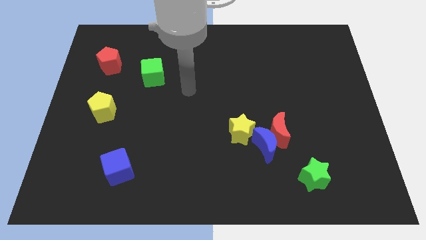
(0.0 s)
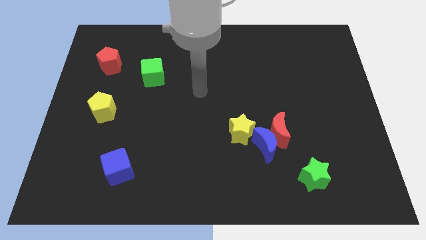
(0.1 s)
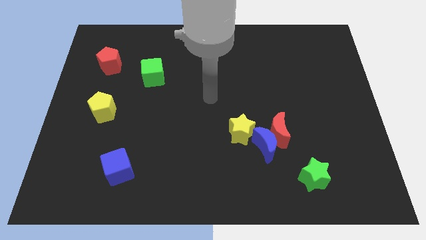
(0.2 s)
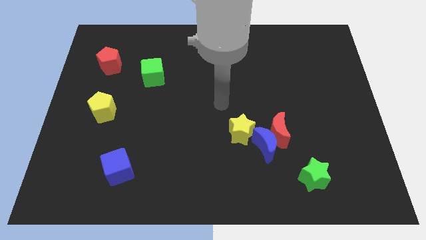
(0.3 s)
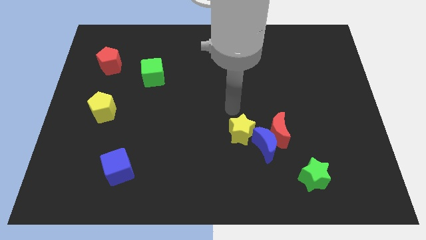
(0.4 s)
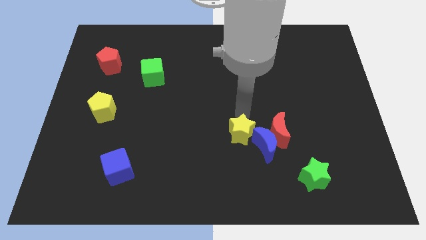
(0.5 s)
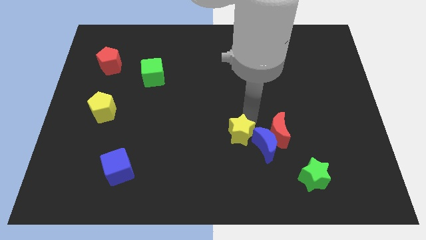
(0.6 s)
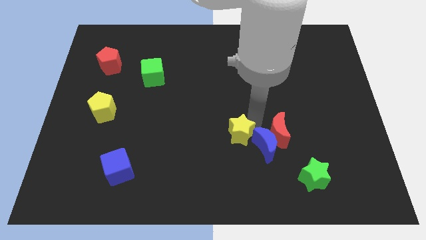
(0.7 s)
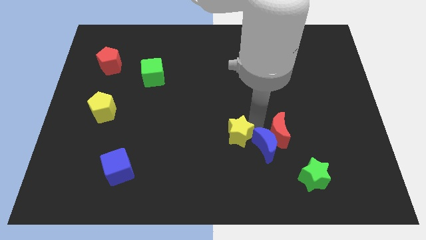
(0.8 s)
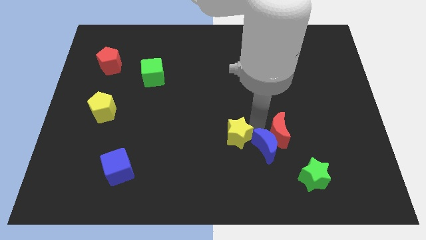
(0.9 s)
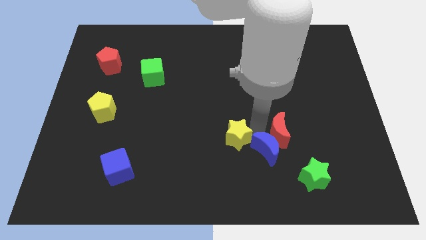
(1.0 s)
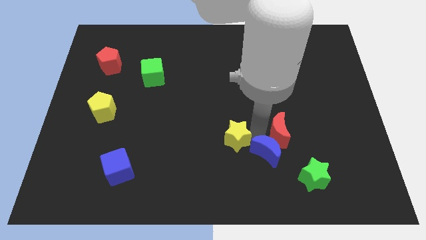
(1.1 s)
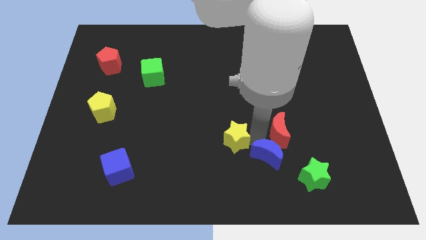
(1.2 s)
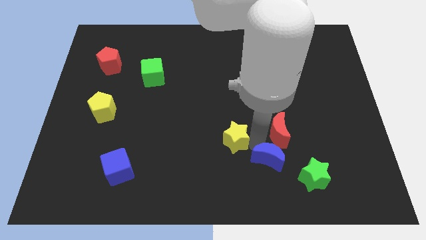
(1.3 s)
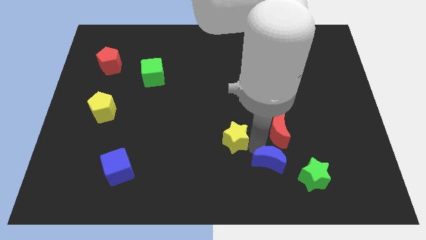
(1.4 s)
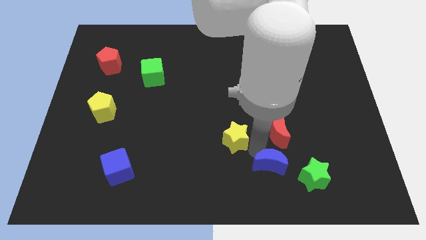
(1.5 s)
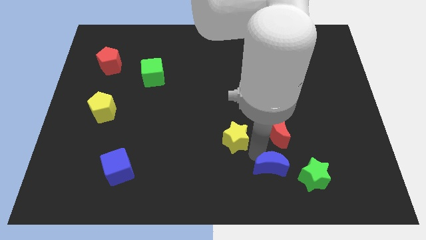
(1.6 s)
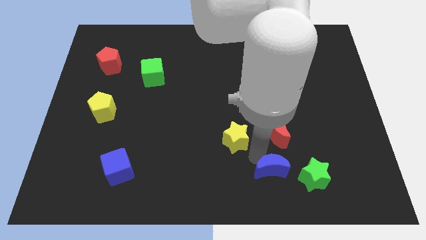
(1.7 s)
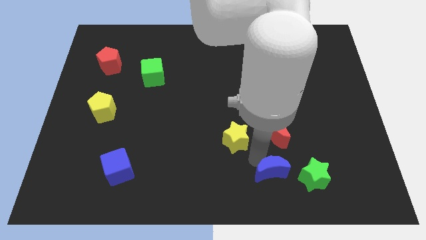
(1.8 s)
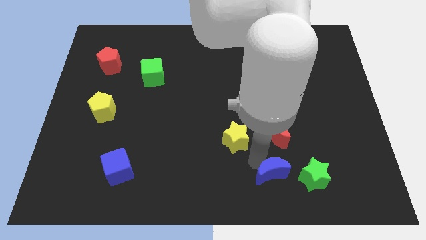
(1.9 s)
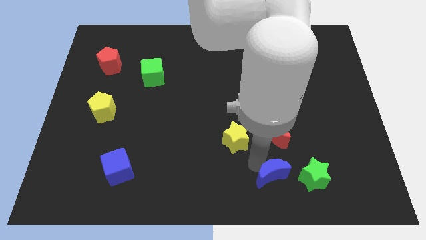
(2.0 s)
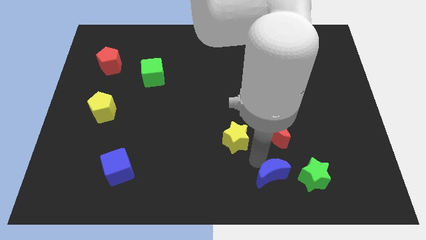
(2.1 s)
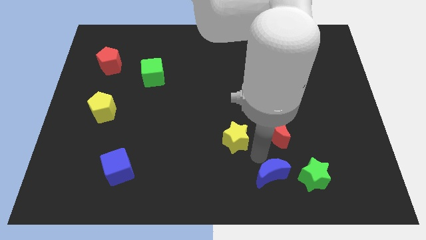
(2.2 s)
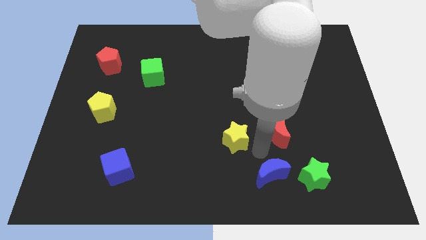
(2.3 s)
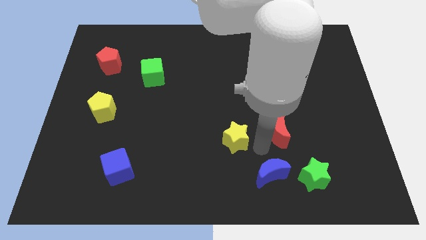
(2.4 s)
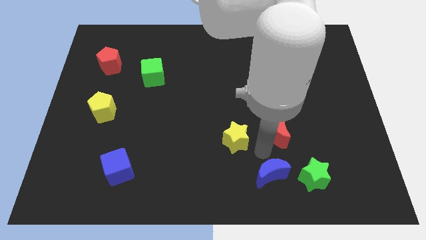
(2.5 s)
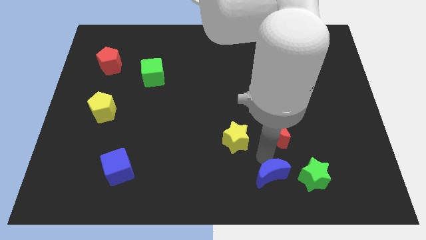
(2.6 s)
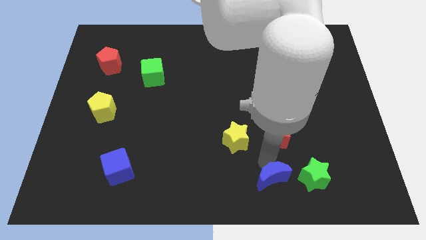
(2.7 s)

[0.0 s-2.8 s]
move the blue moon away from the red moon and yellow star

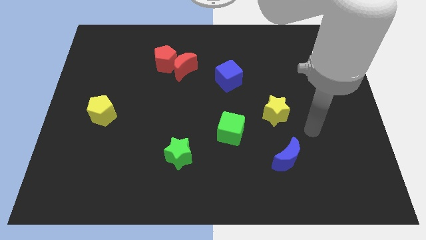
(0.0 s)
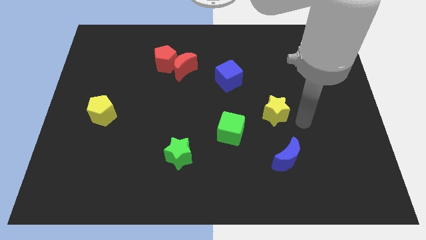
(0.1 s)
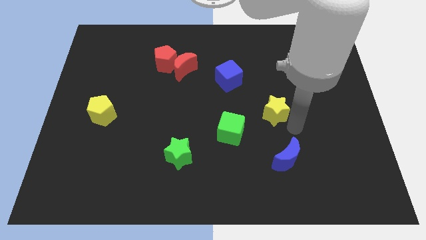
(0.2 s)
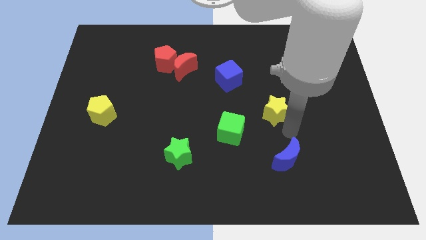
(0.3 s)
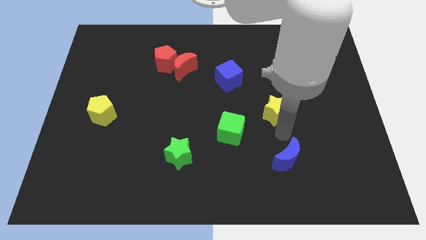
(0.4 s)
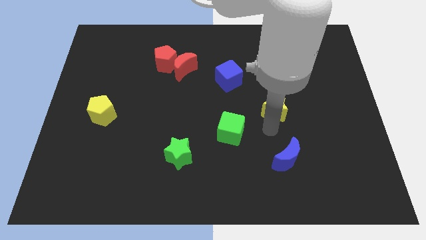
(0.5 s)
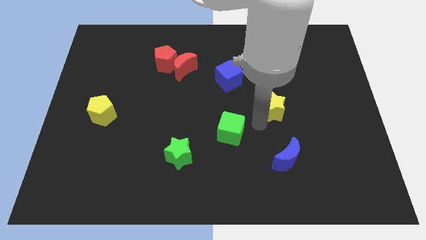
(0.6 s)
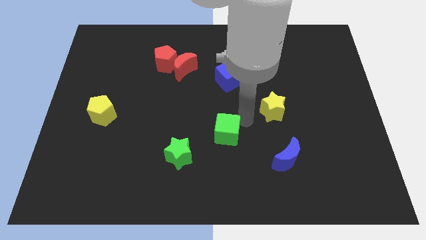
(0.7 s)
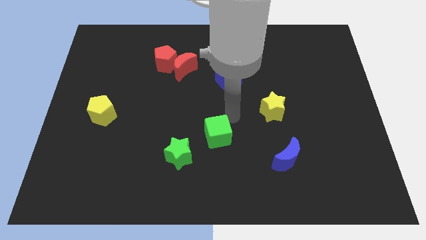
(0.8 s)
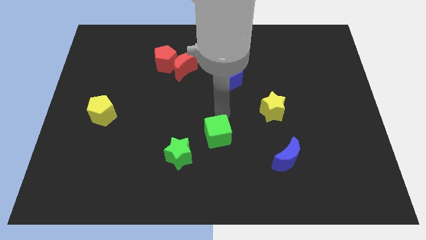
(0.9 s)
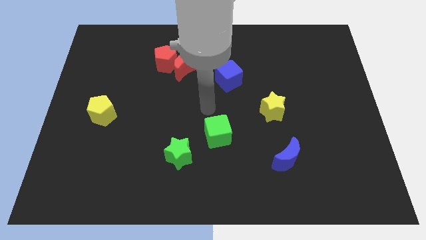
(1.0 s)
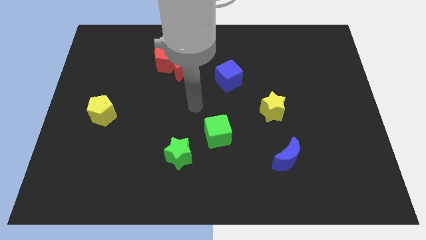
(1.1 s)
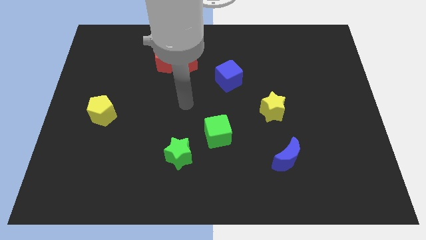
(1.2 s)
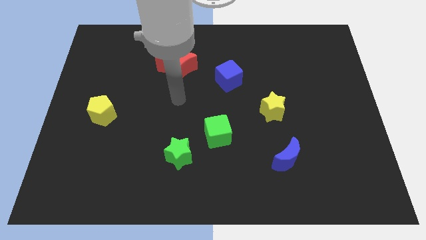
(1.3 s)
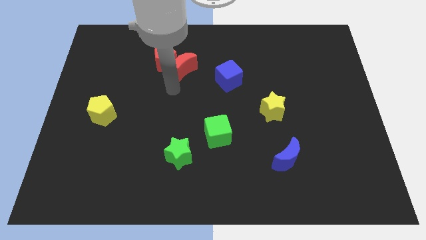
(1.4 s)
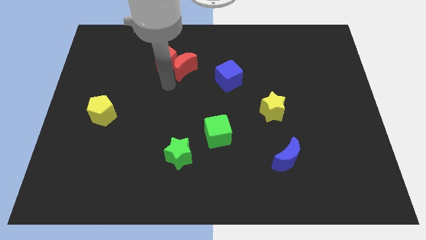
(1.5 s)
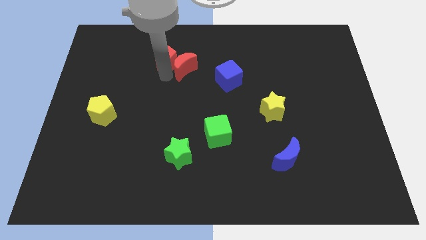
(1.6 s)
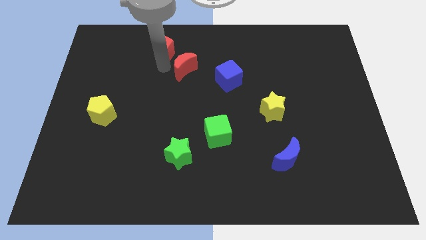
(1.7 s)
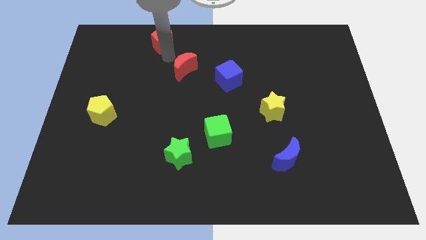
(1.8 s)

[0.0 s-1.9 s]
pull the red moon apart from the red pentagon

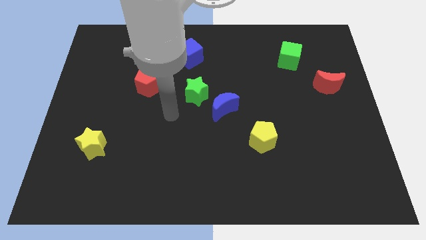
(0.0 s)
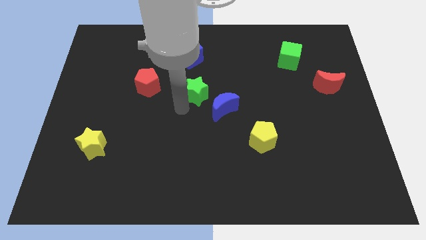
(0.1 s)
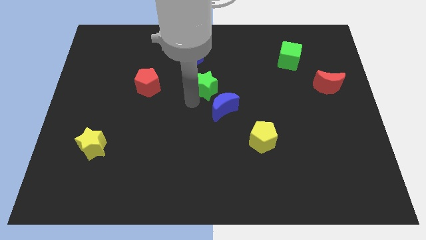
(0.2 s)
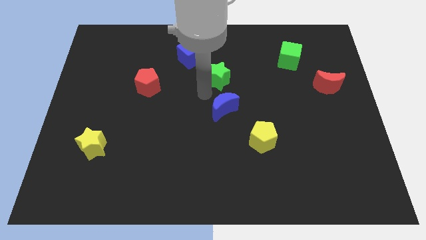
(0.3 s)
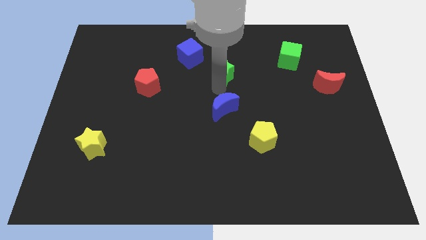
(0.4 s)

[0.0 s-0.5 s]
move the blue moon away from the green star

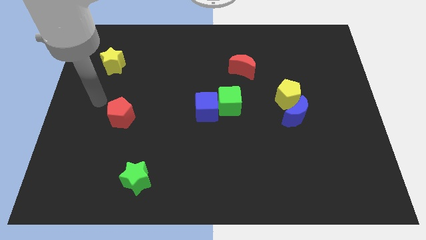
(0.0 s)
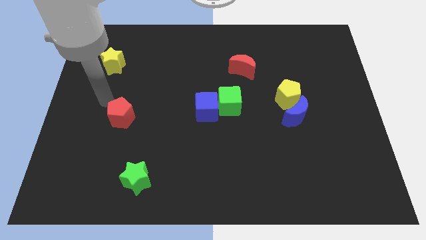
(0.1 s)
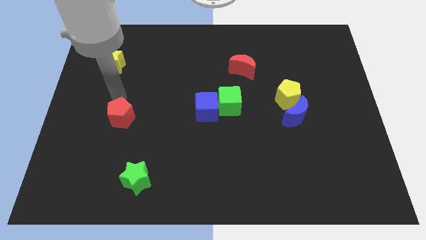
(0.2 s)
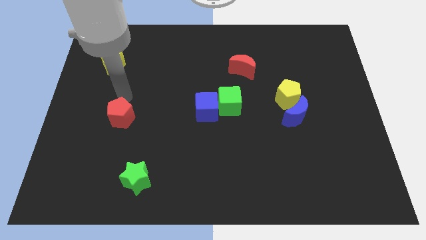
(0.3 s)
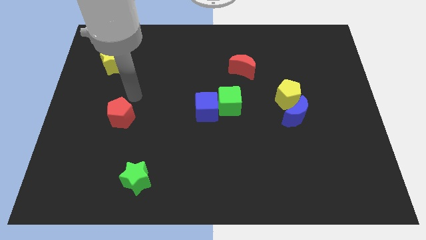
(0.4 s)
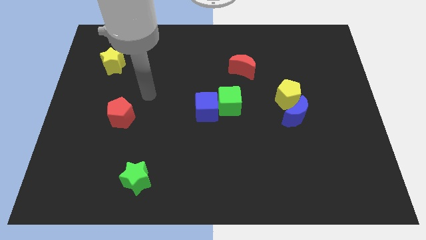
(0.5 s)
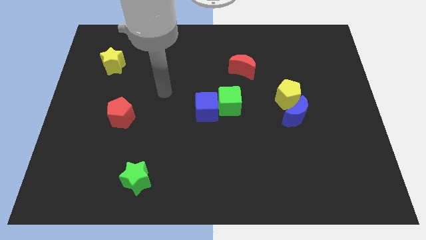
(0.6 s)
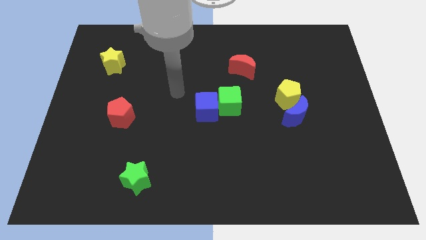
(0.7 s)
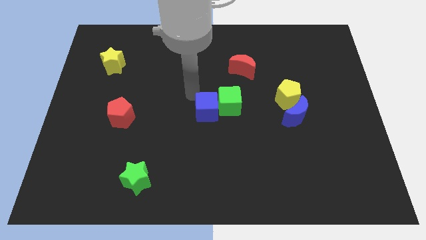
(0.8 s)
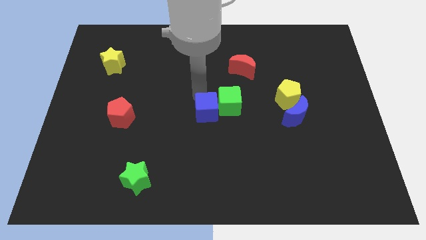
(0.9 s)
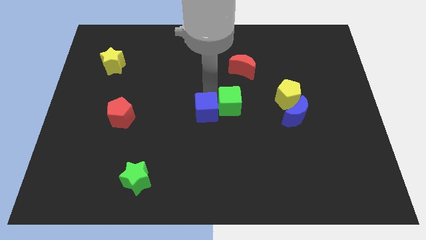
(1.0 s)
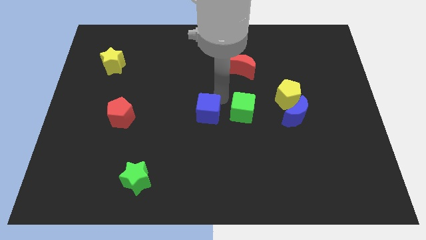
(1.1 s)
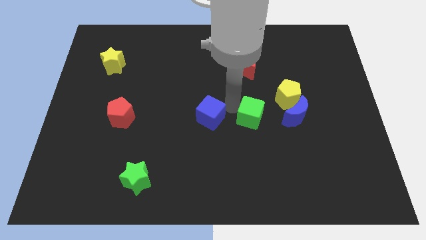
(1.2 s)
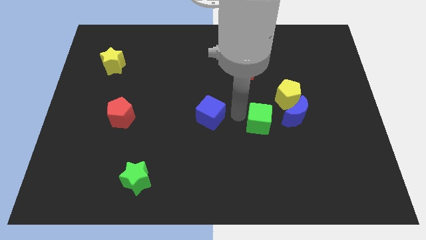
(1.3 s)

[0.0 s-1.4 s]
pull the blue cube apart from the green cube

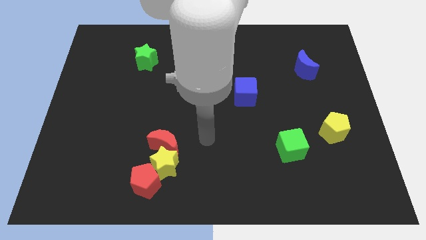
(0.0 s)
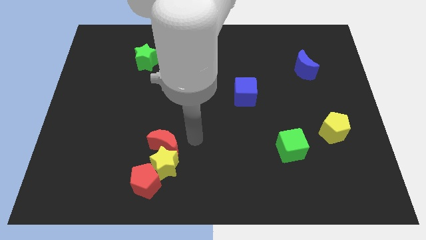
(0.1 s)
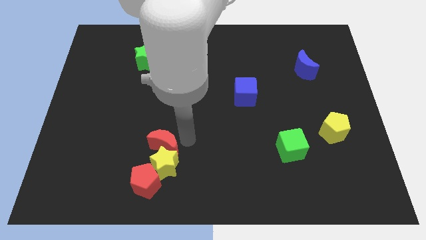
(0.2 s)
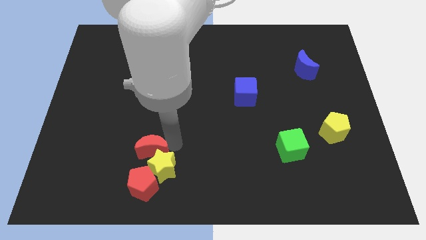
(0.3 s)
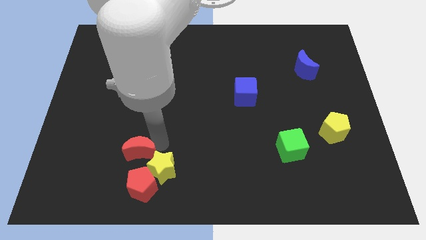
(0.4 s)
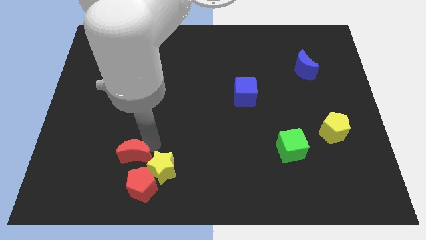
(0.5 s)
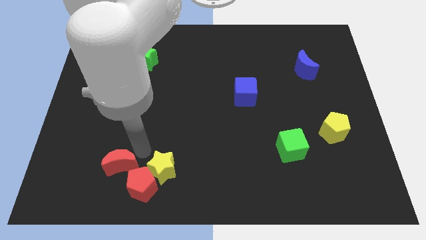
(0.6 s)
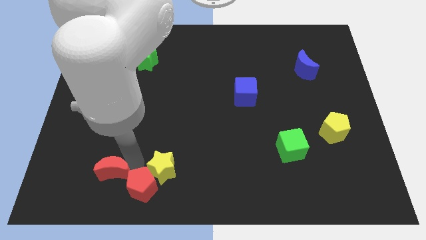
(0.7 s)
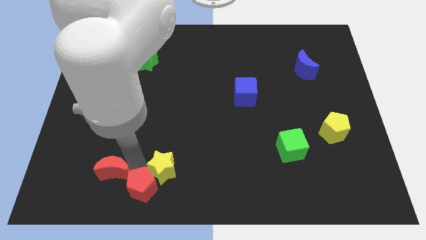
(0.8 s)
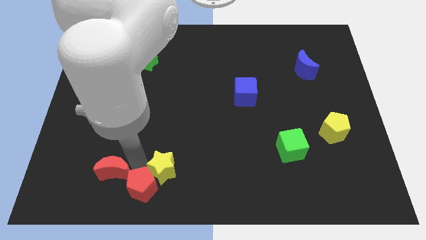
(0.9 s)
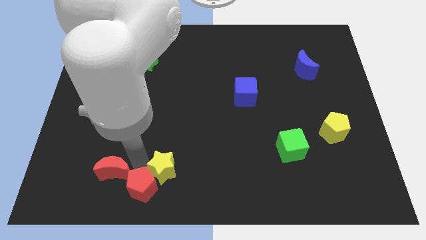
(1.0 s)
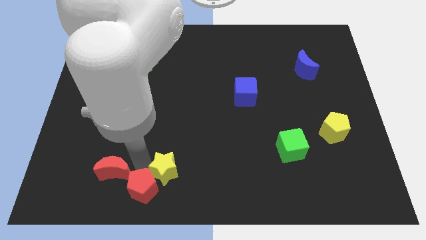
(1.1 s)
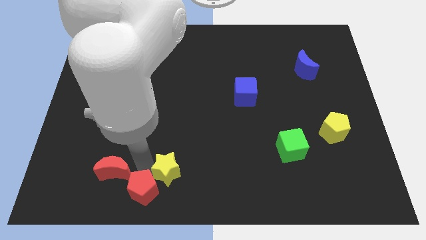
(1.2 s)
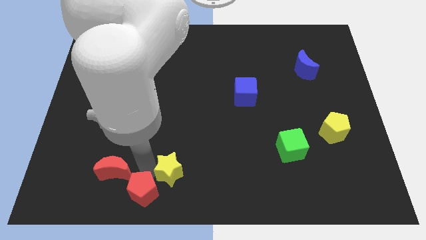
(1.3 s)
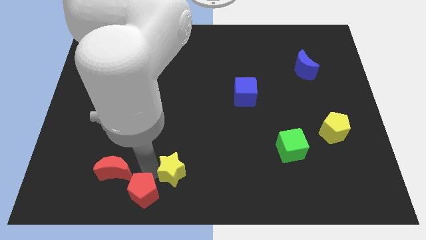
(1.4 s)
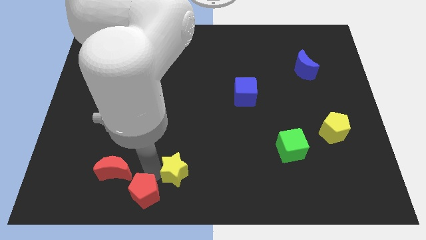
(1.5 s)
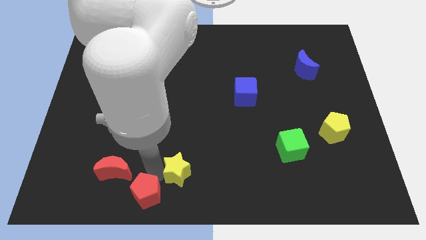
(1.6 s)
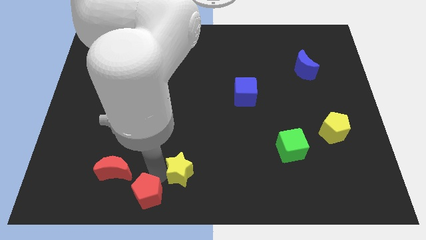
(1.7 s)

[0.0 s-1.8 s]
separate the yellow star from the red moon and red pentagon

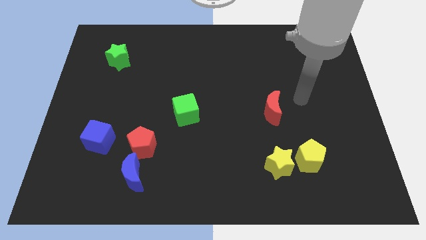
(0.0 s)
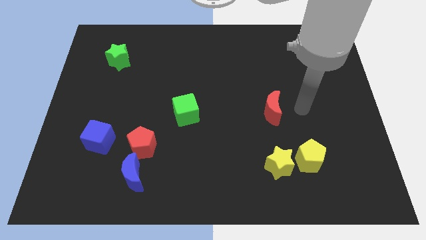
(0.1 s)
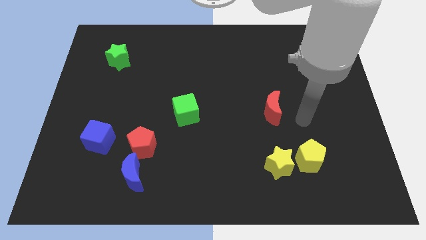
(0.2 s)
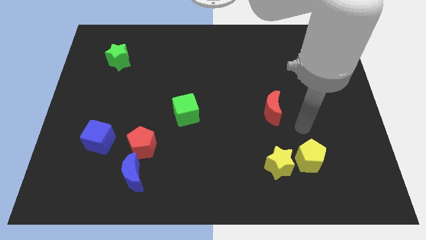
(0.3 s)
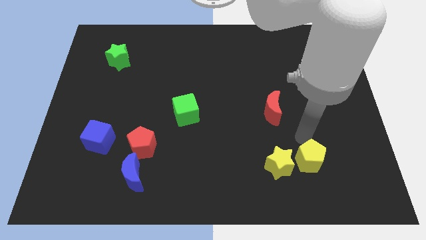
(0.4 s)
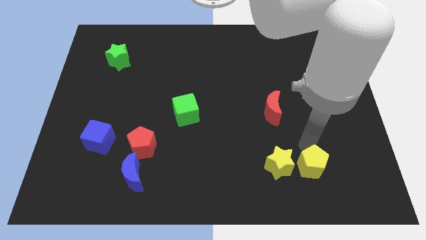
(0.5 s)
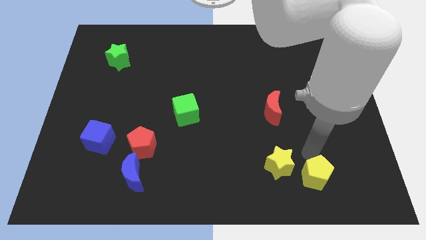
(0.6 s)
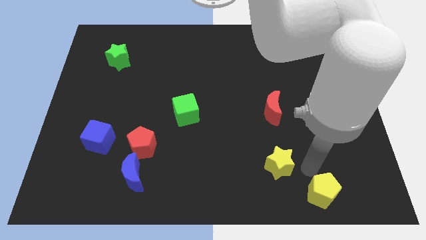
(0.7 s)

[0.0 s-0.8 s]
move the yellow star away from the yellow pentagon
